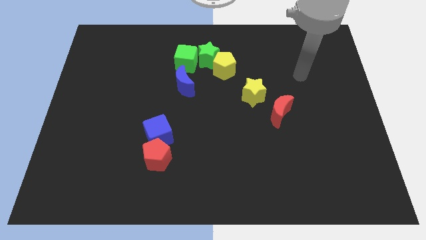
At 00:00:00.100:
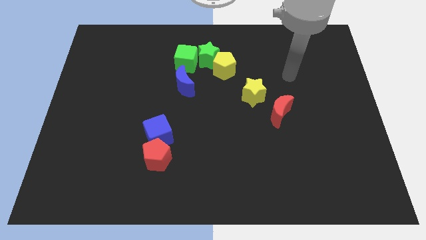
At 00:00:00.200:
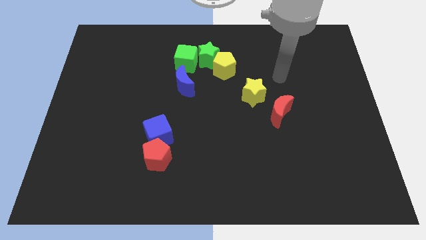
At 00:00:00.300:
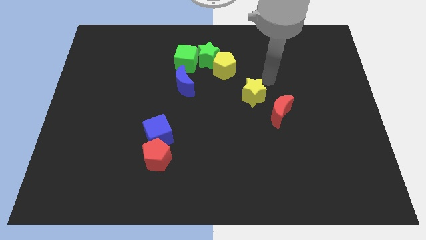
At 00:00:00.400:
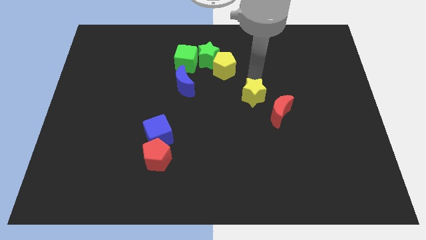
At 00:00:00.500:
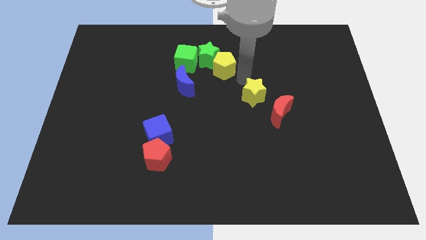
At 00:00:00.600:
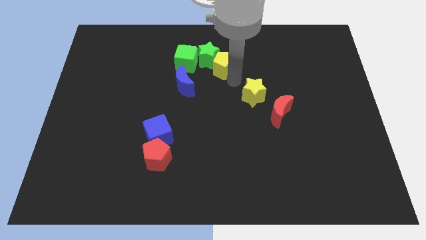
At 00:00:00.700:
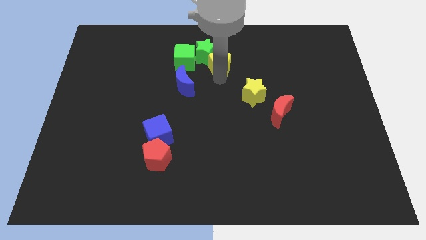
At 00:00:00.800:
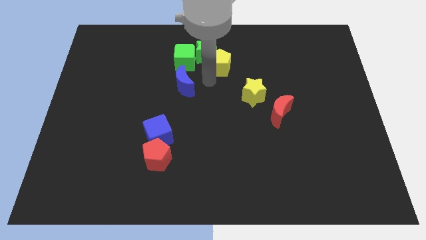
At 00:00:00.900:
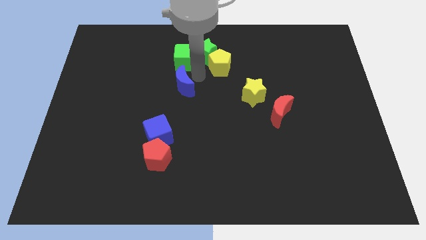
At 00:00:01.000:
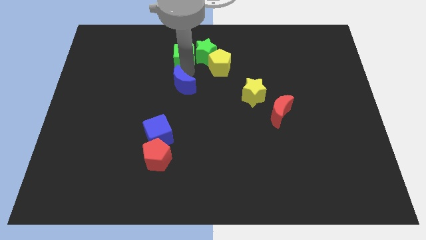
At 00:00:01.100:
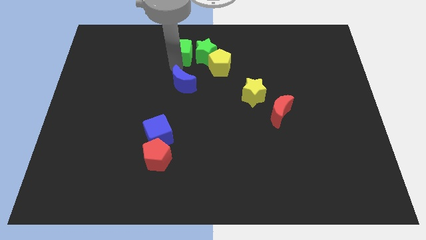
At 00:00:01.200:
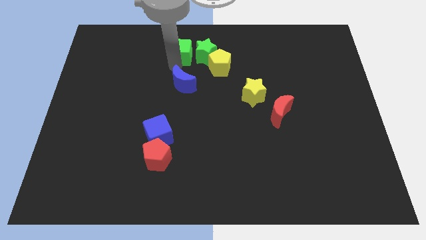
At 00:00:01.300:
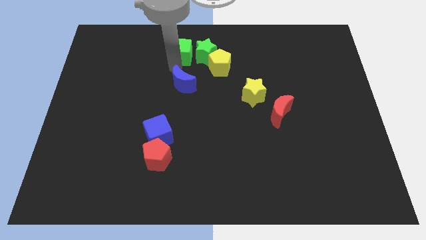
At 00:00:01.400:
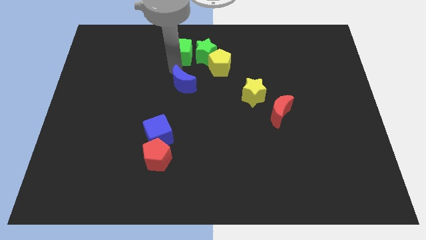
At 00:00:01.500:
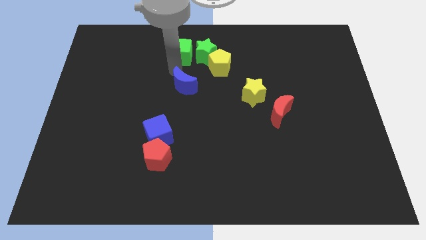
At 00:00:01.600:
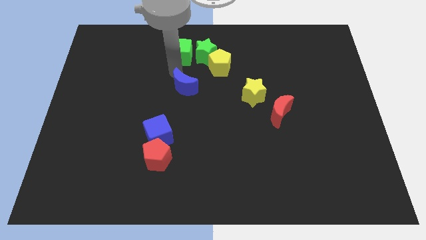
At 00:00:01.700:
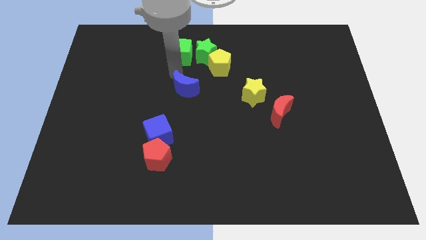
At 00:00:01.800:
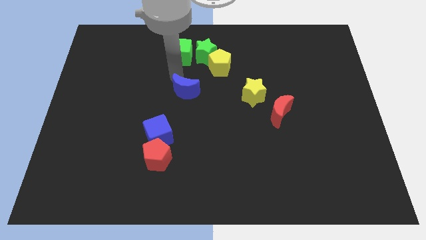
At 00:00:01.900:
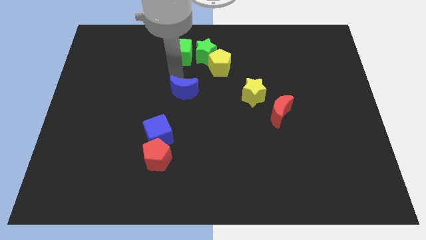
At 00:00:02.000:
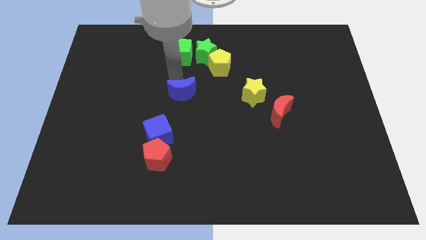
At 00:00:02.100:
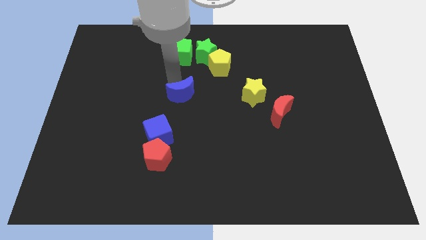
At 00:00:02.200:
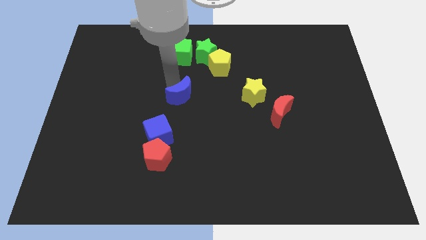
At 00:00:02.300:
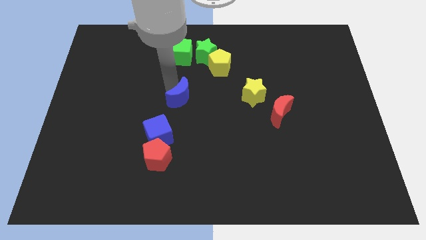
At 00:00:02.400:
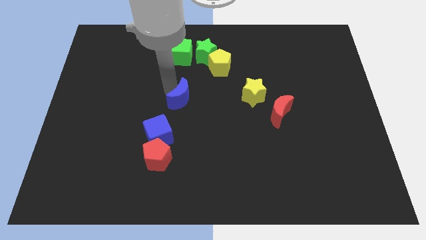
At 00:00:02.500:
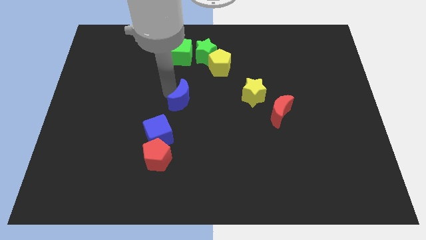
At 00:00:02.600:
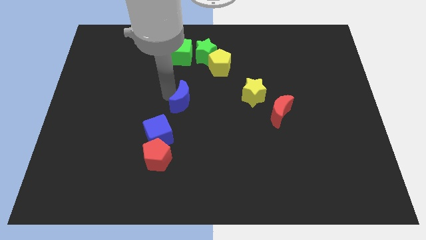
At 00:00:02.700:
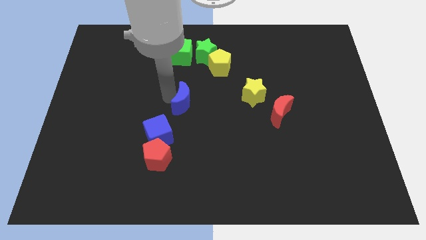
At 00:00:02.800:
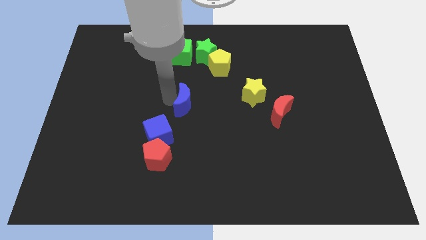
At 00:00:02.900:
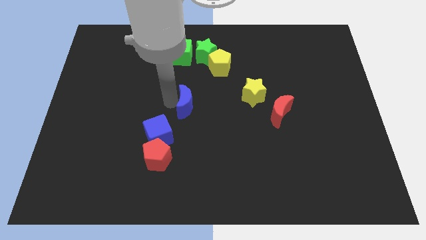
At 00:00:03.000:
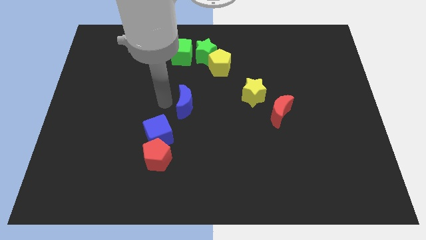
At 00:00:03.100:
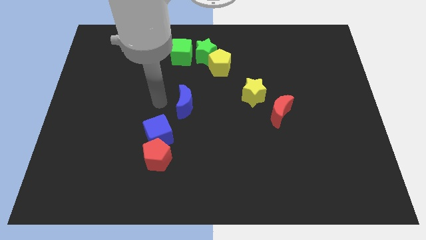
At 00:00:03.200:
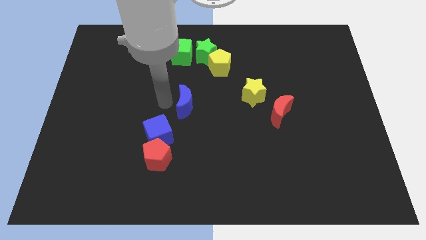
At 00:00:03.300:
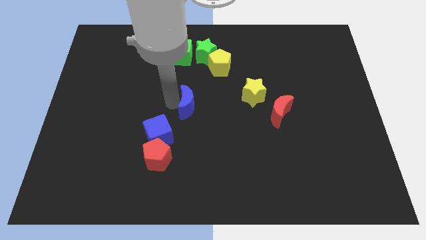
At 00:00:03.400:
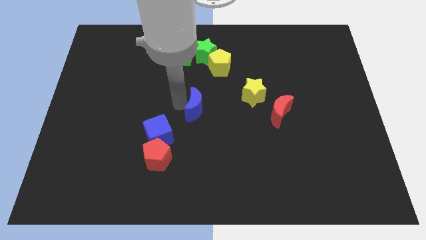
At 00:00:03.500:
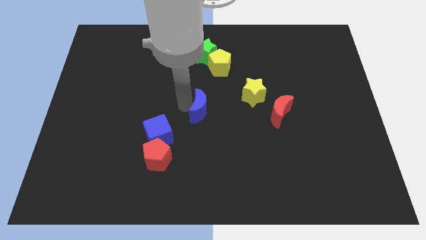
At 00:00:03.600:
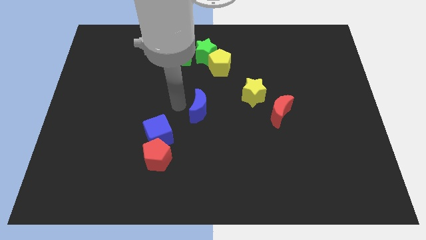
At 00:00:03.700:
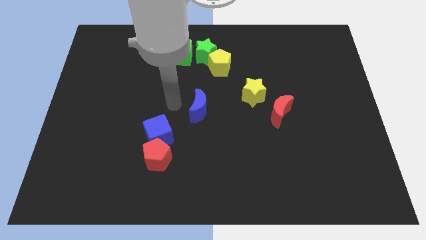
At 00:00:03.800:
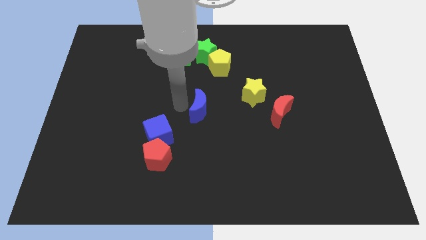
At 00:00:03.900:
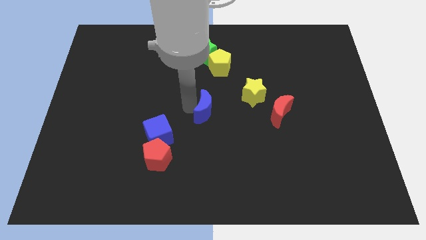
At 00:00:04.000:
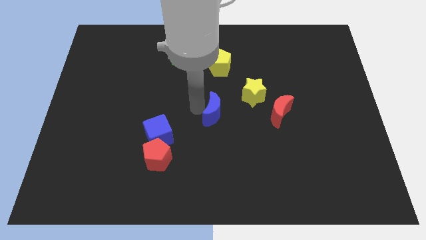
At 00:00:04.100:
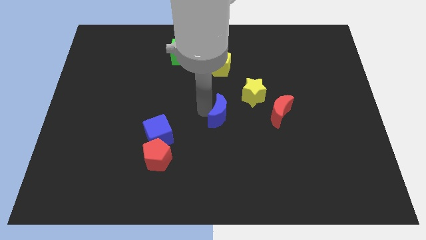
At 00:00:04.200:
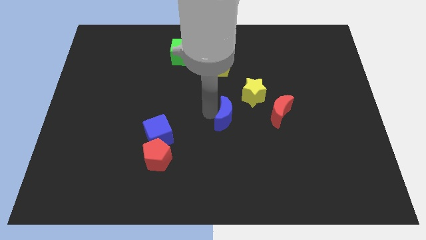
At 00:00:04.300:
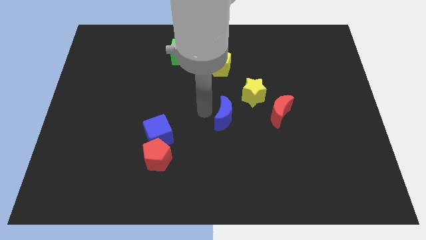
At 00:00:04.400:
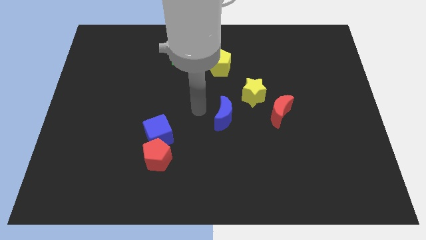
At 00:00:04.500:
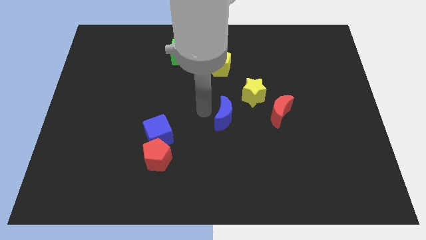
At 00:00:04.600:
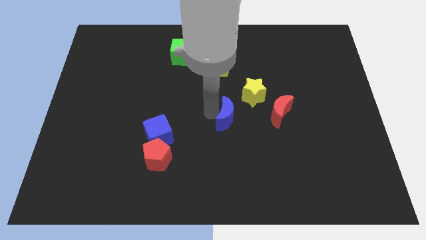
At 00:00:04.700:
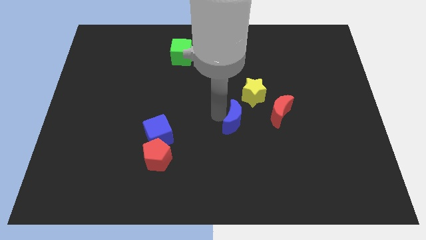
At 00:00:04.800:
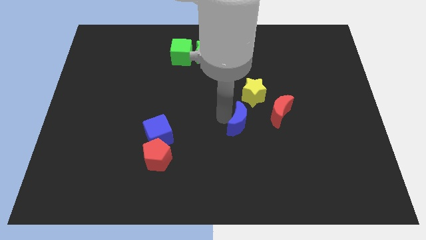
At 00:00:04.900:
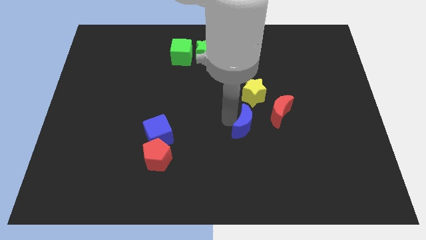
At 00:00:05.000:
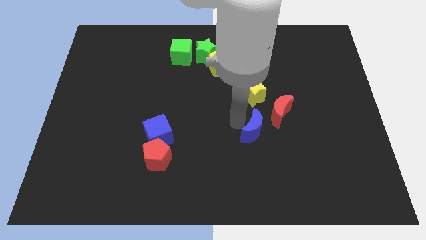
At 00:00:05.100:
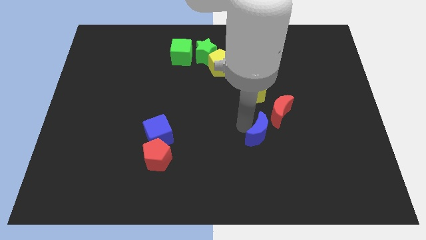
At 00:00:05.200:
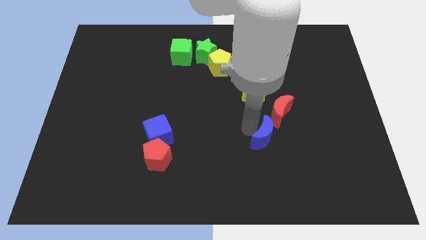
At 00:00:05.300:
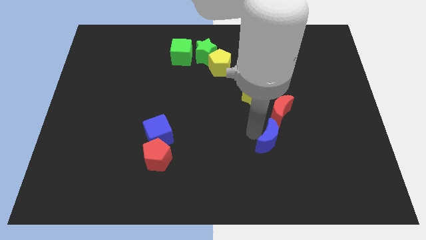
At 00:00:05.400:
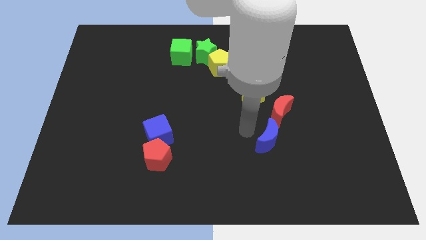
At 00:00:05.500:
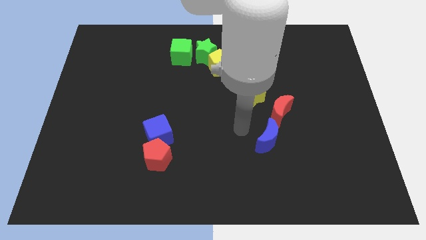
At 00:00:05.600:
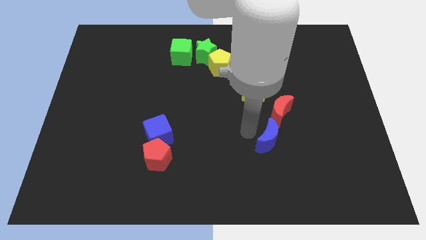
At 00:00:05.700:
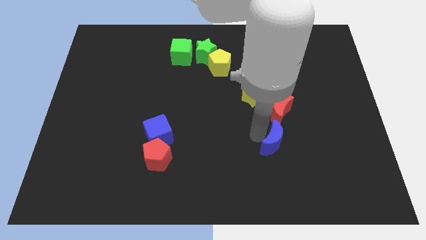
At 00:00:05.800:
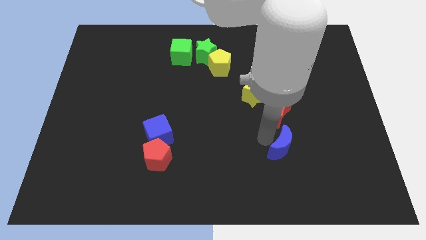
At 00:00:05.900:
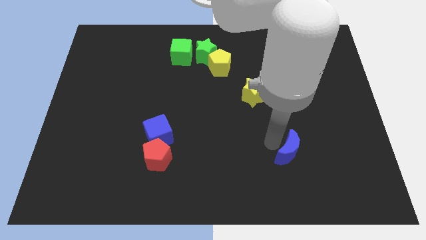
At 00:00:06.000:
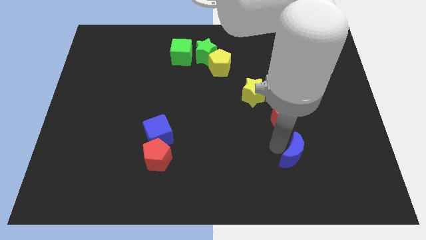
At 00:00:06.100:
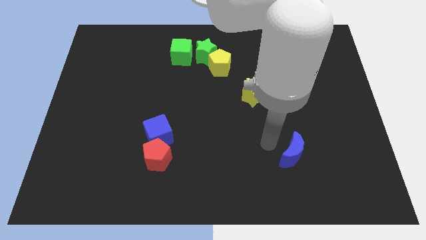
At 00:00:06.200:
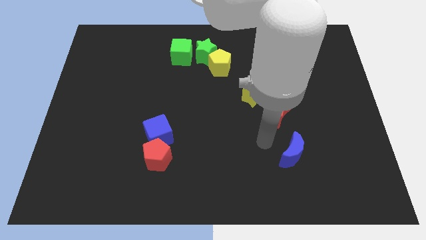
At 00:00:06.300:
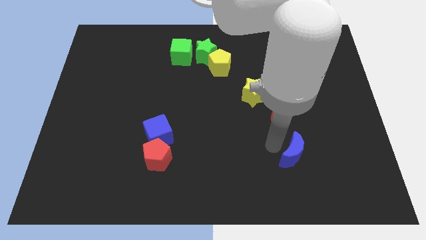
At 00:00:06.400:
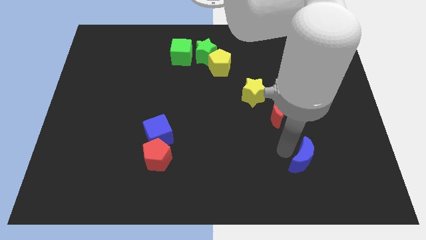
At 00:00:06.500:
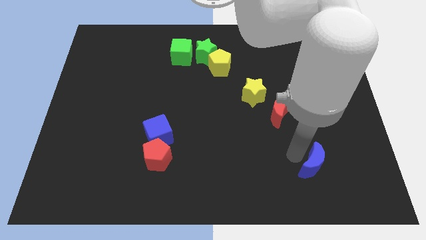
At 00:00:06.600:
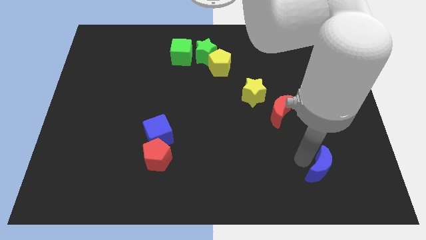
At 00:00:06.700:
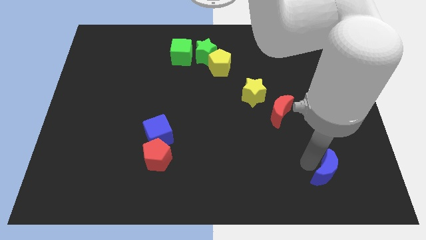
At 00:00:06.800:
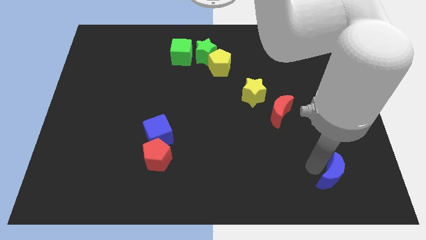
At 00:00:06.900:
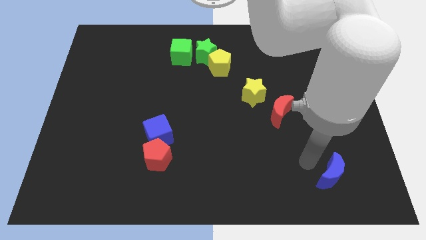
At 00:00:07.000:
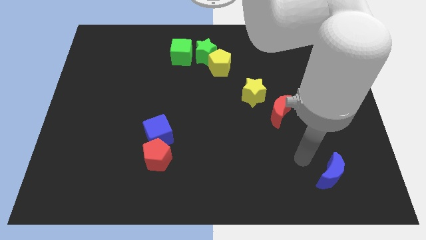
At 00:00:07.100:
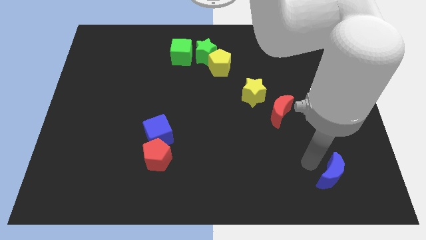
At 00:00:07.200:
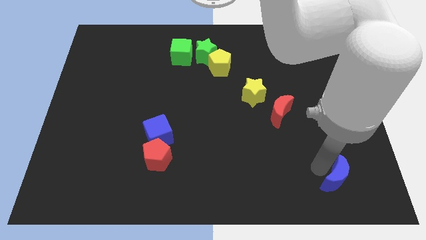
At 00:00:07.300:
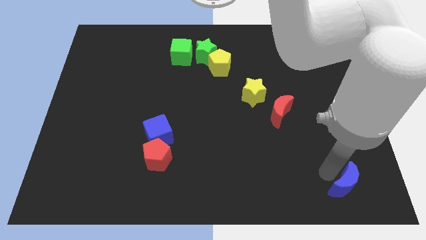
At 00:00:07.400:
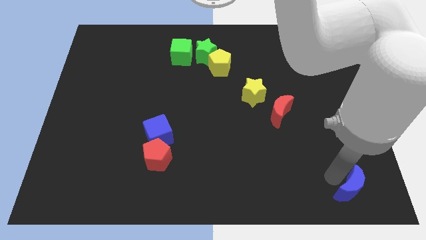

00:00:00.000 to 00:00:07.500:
put the blue moon to the bottom right corner
